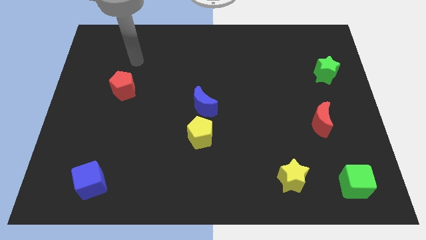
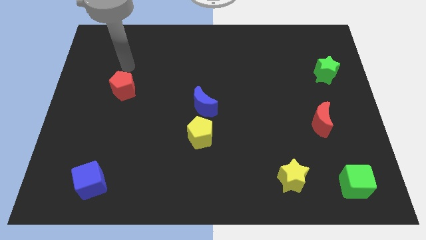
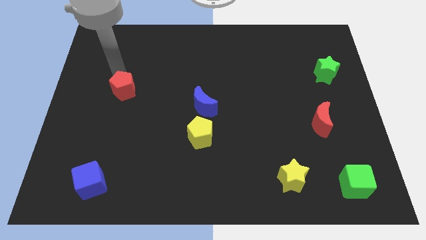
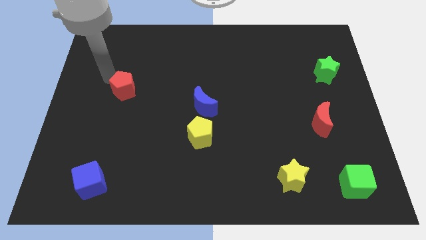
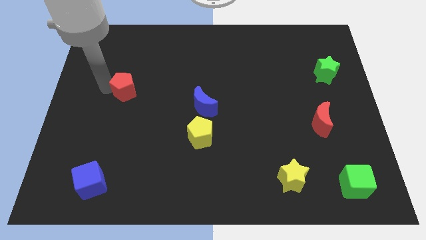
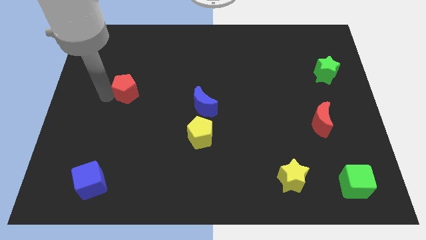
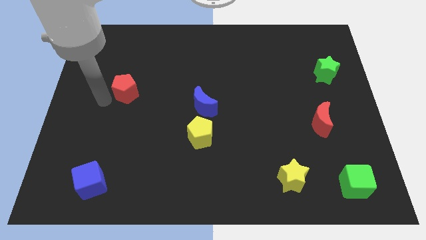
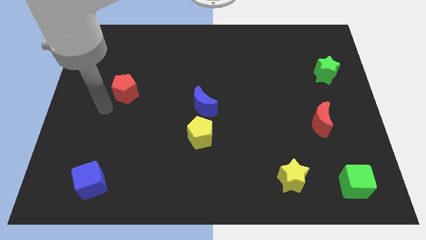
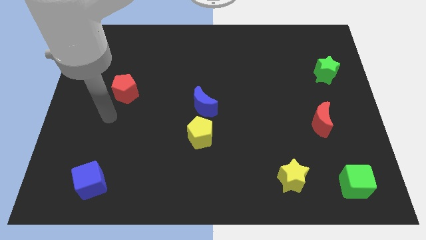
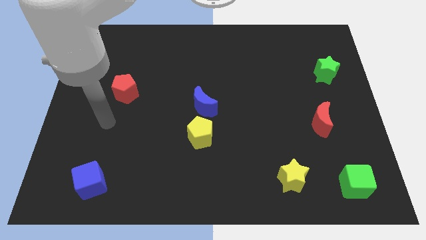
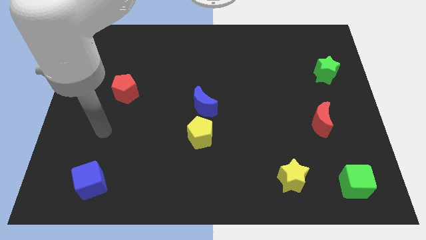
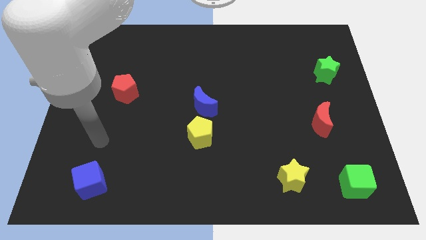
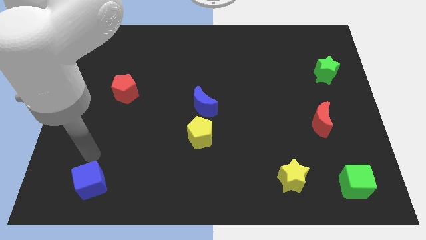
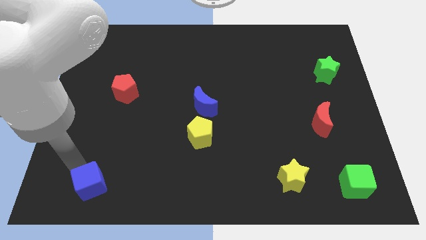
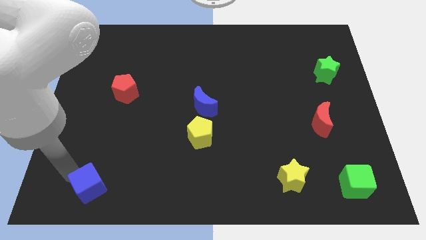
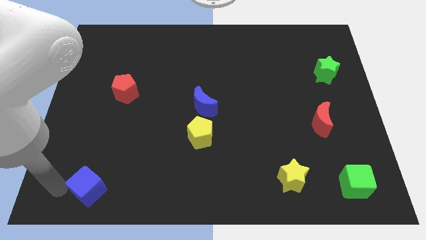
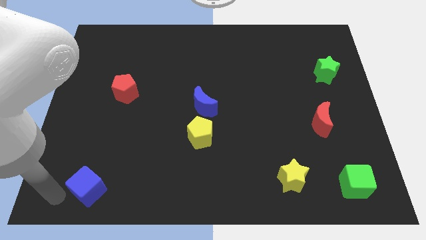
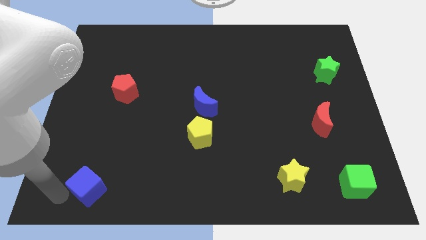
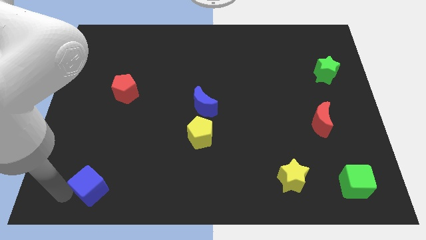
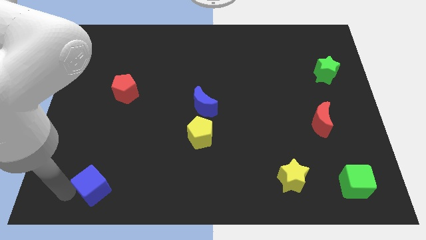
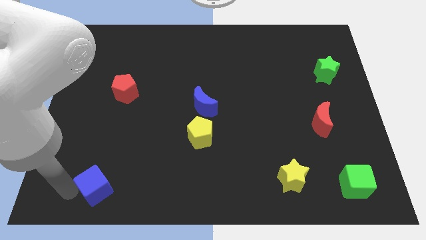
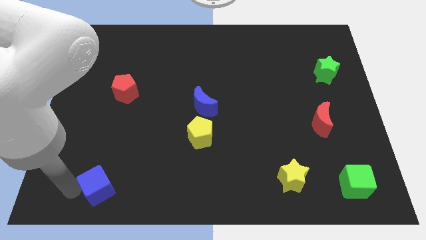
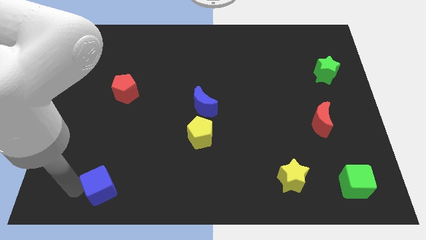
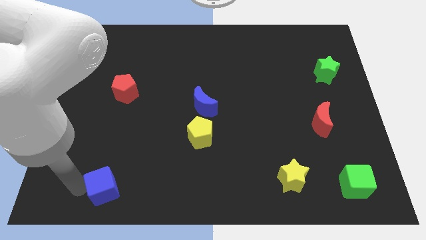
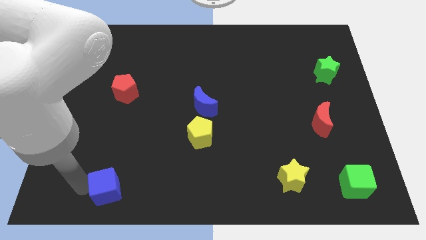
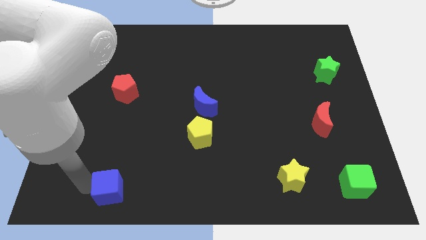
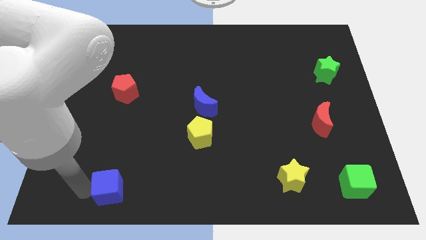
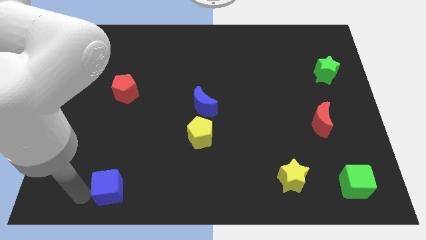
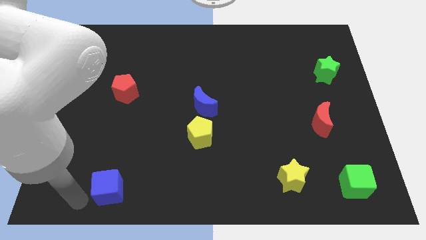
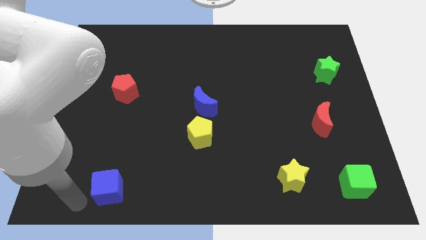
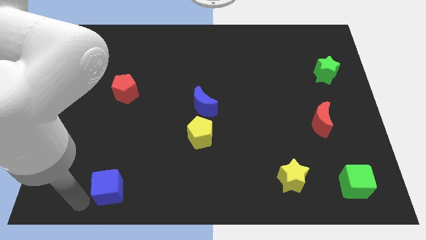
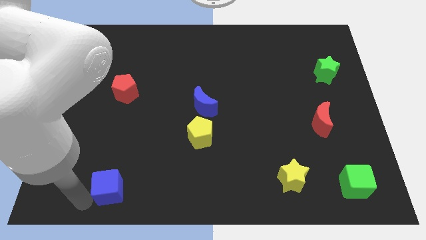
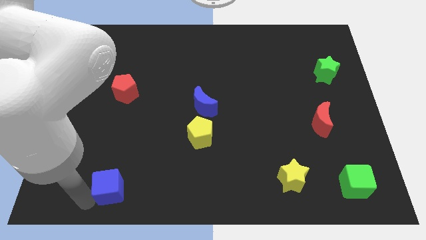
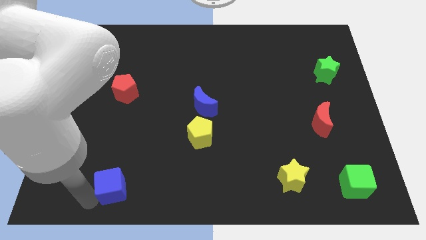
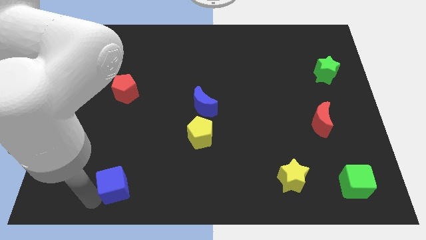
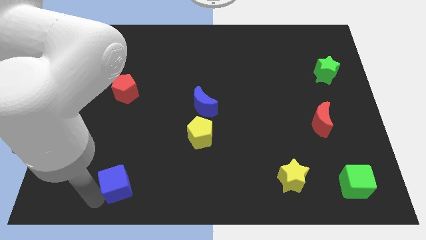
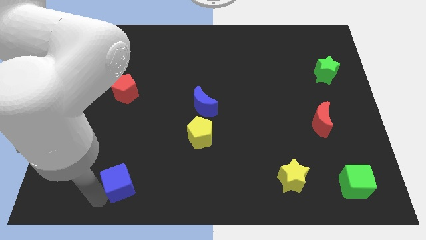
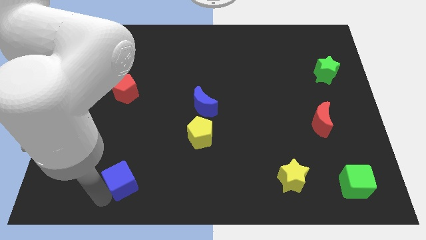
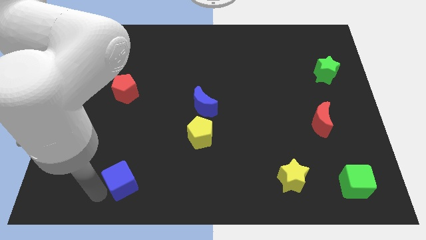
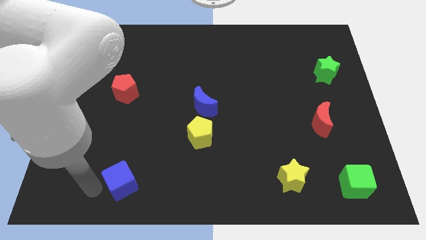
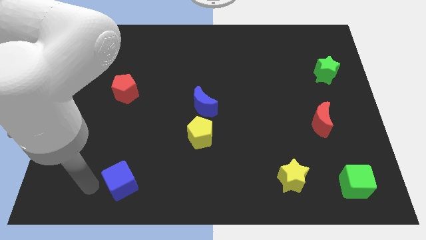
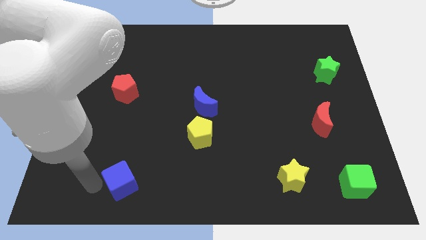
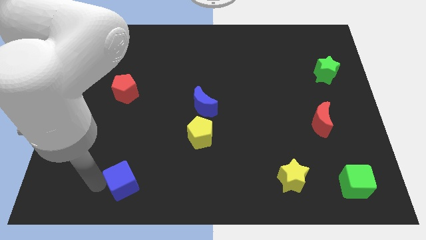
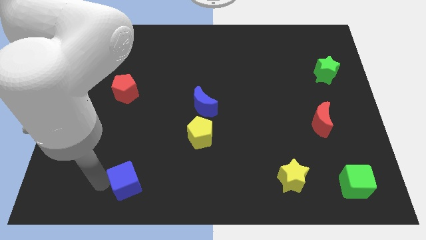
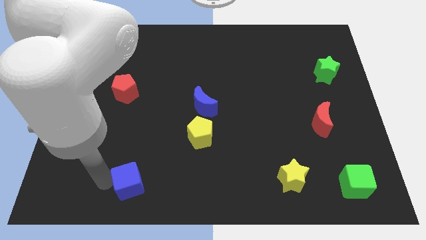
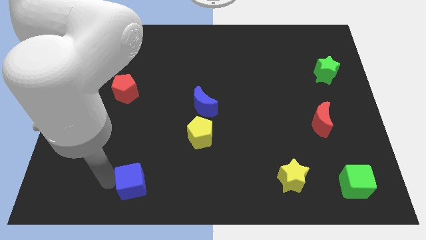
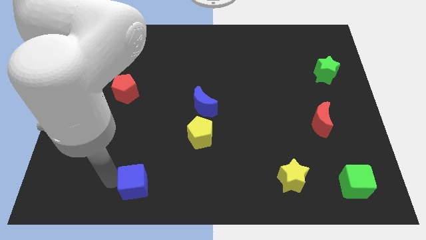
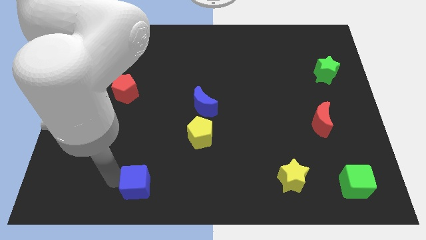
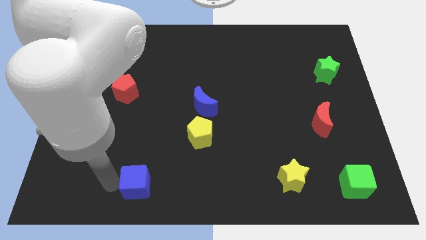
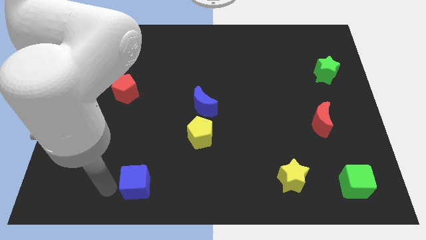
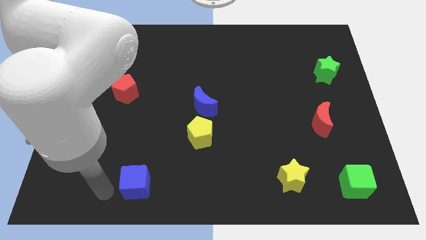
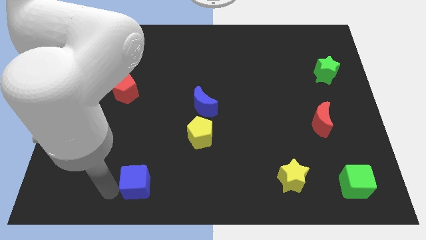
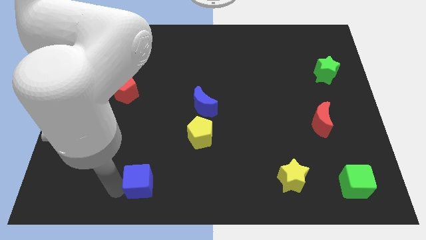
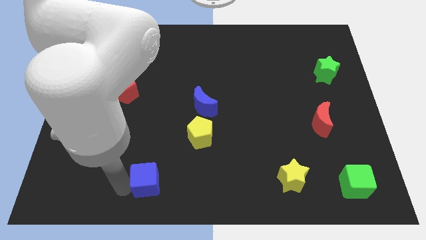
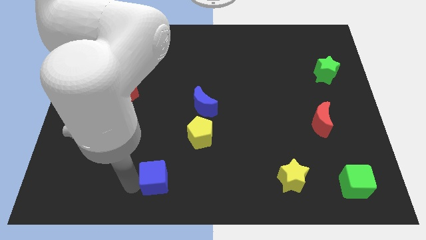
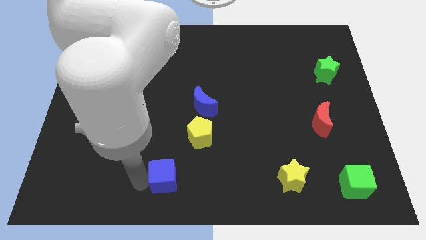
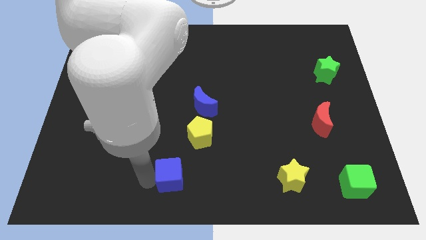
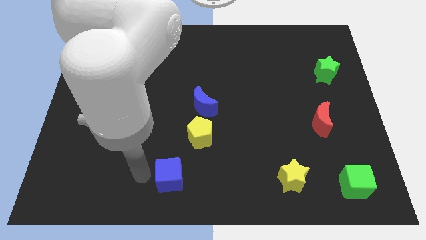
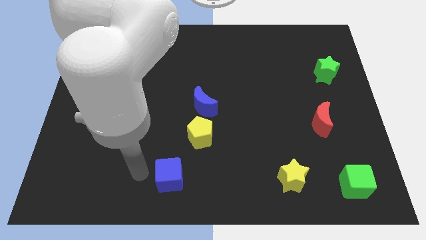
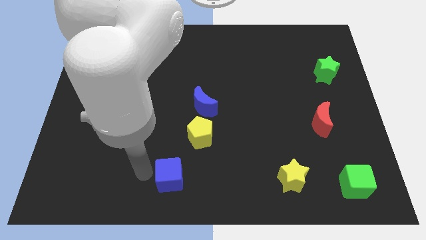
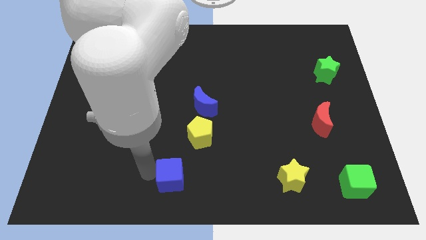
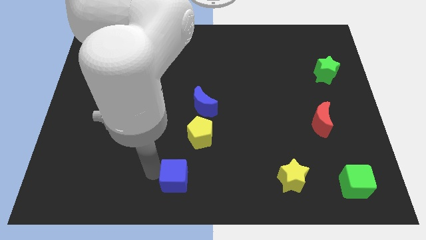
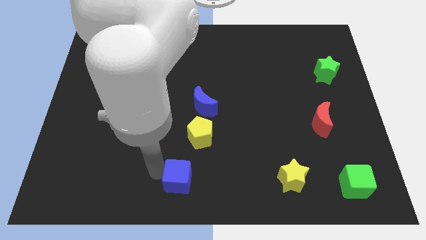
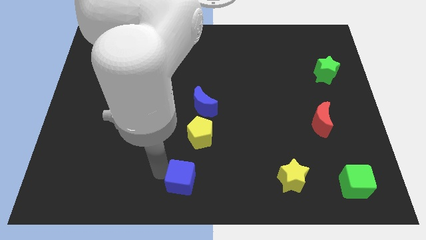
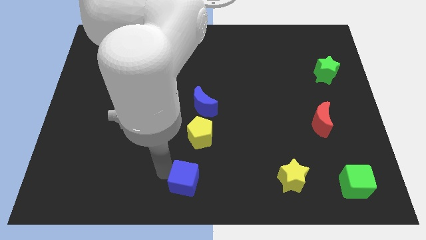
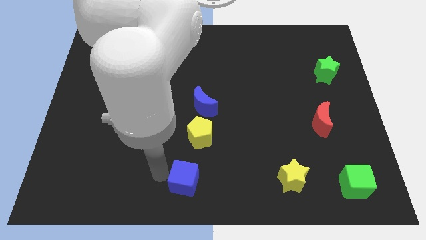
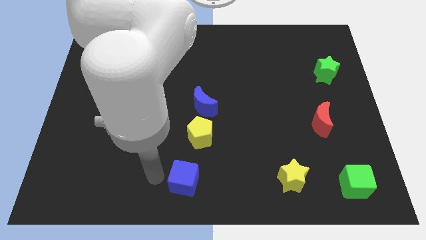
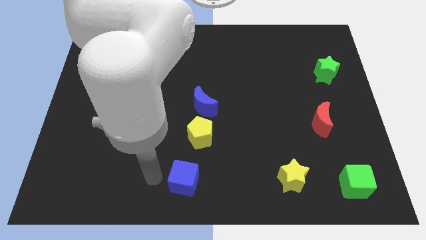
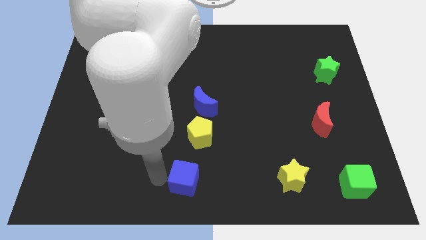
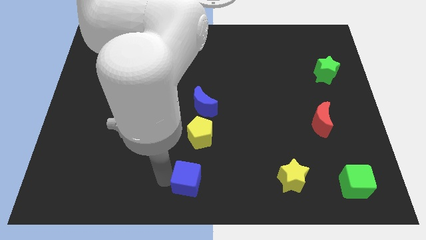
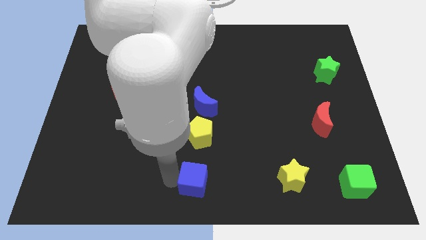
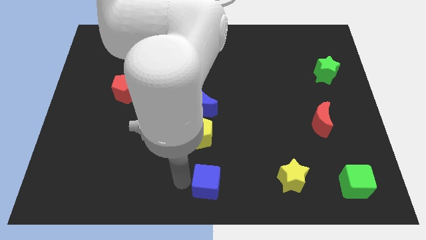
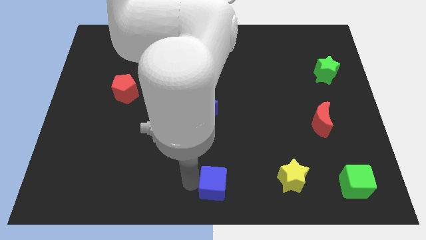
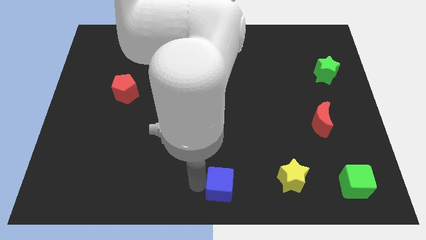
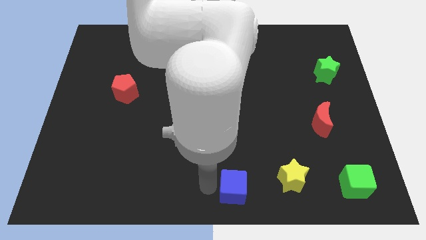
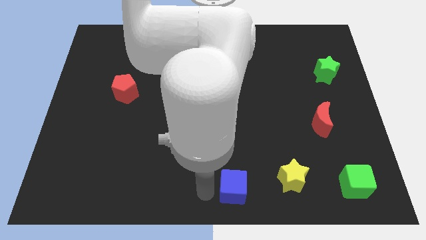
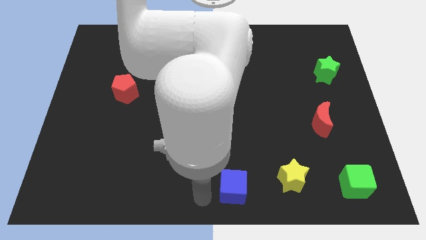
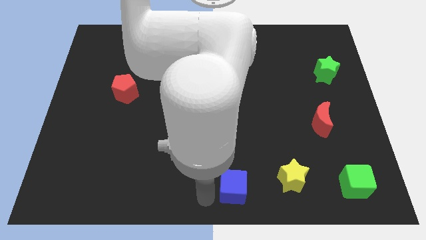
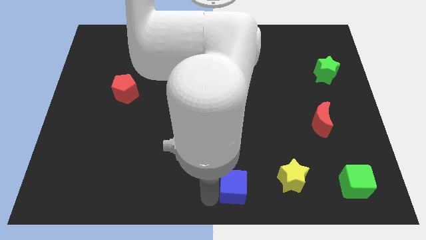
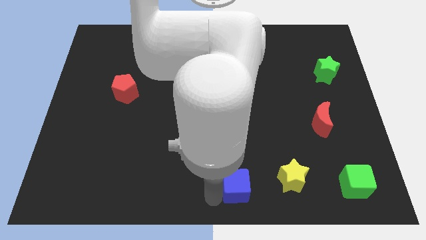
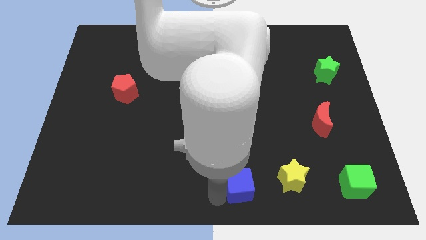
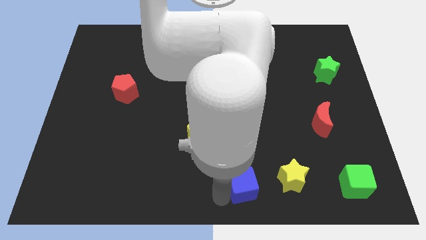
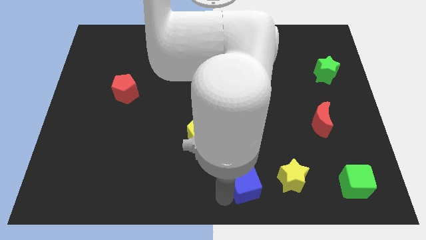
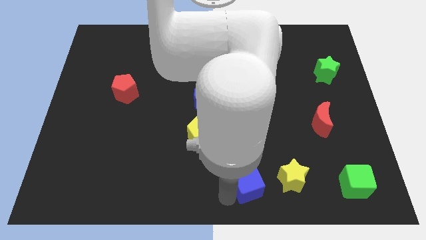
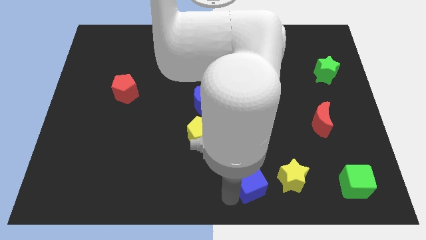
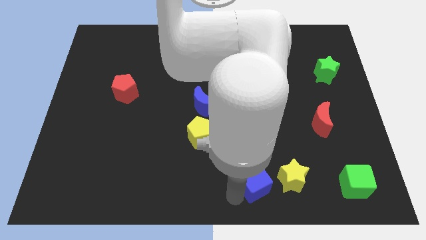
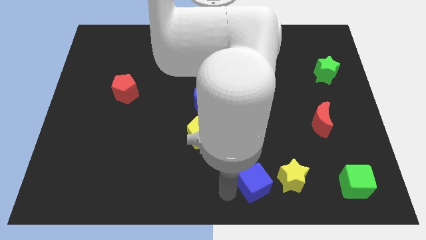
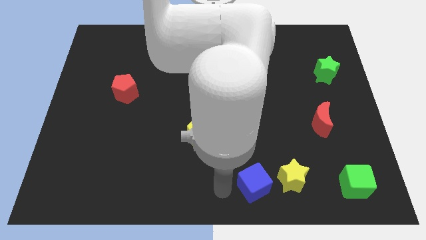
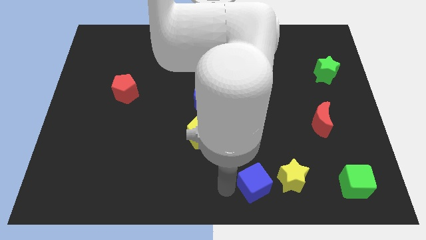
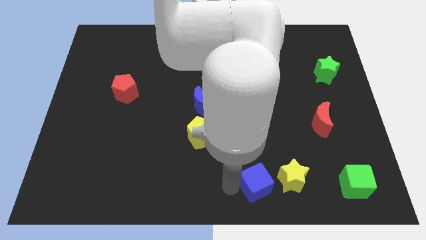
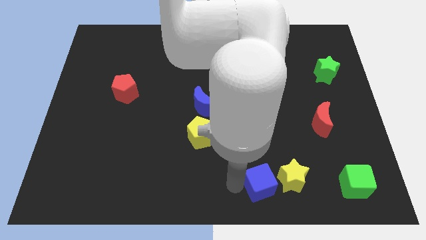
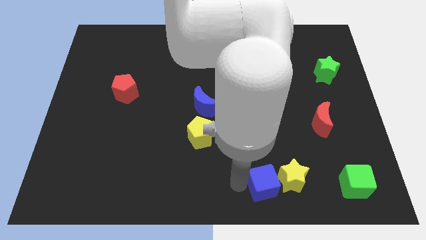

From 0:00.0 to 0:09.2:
put the blue cube close to the yellow star
